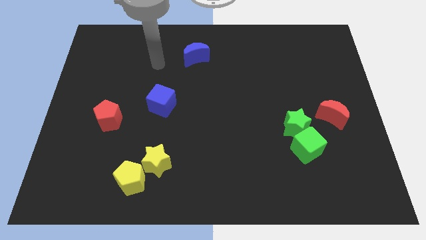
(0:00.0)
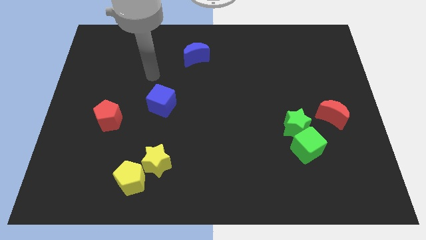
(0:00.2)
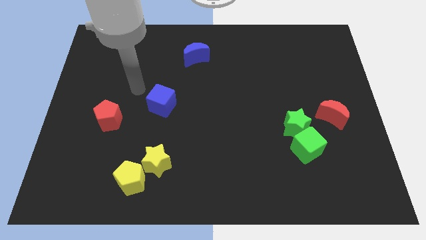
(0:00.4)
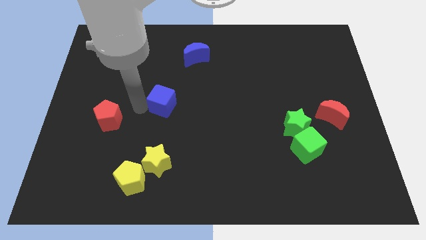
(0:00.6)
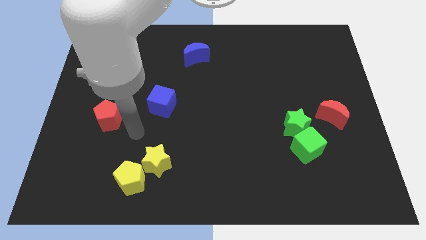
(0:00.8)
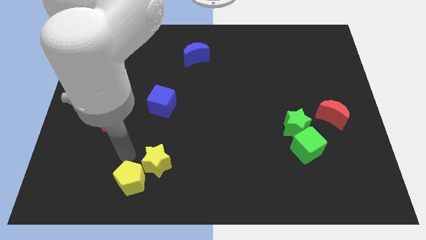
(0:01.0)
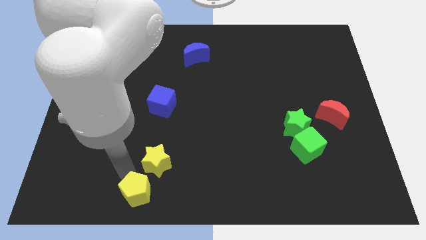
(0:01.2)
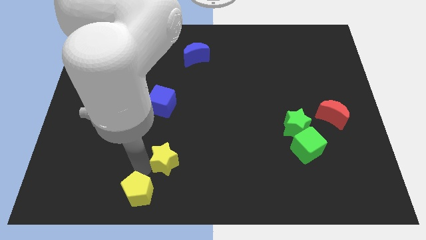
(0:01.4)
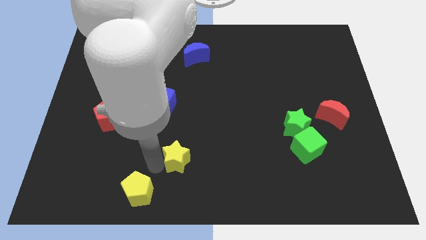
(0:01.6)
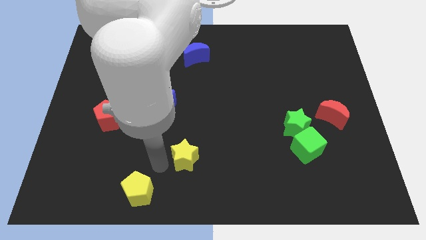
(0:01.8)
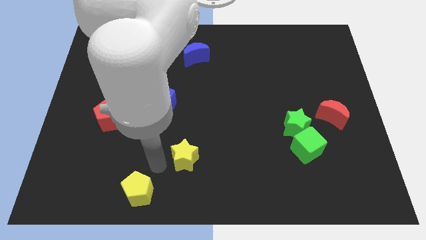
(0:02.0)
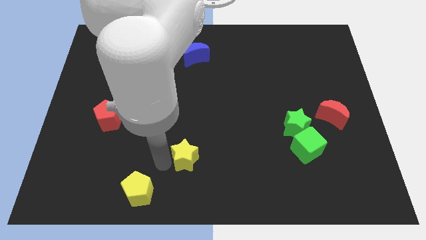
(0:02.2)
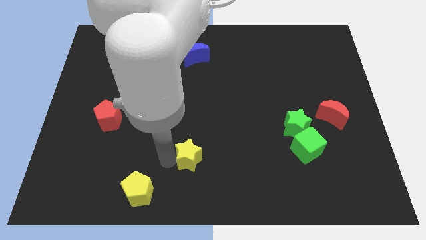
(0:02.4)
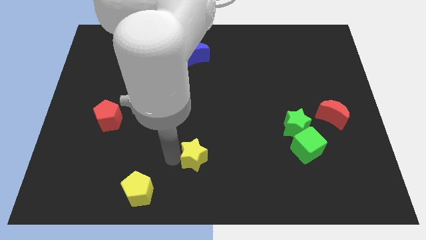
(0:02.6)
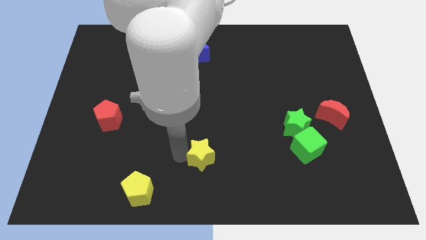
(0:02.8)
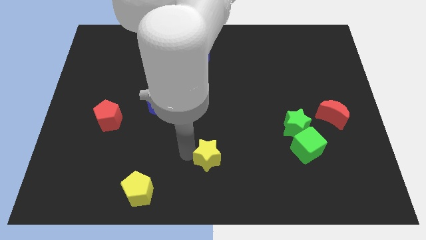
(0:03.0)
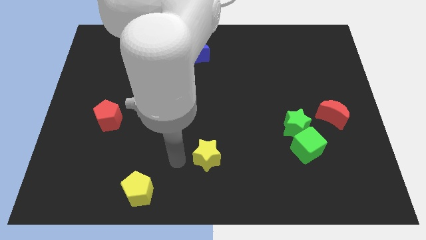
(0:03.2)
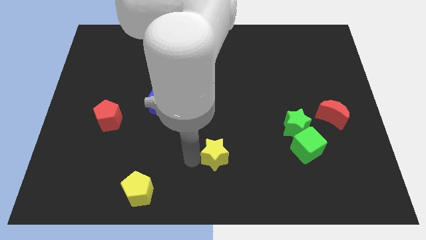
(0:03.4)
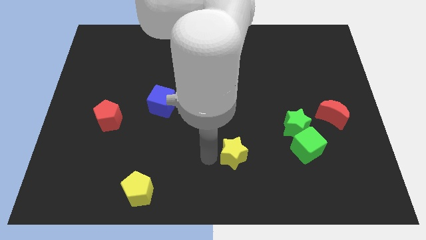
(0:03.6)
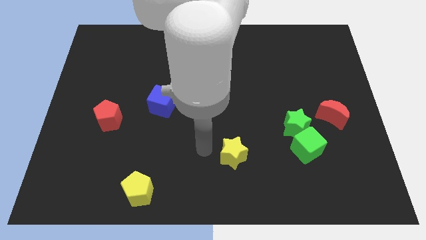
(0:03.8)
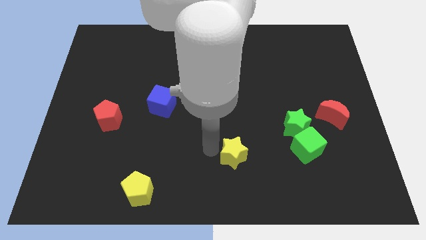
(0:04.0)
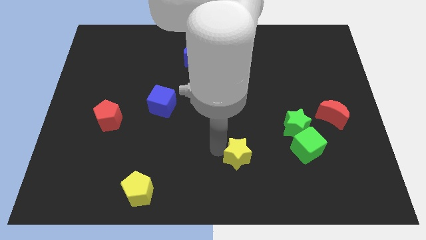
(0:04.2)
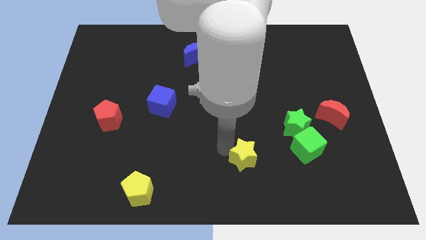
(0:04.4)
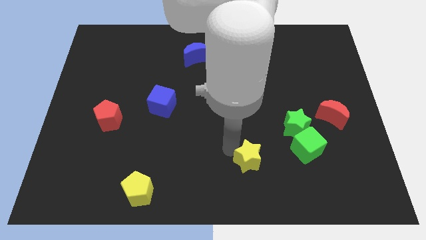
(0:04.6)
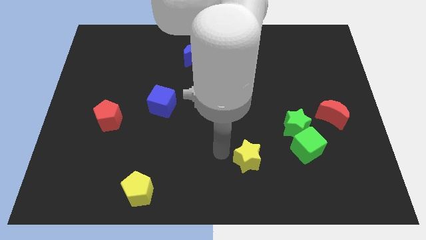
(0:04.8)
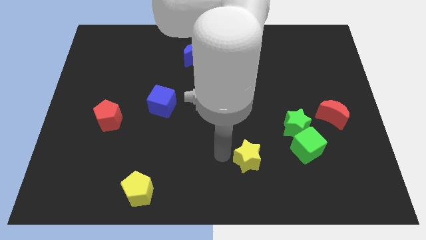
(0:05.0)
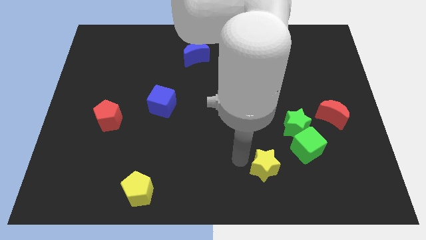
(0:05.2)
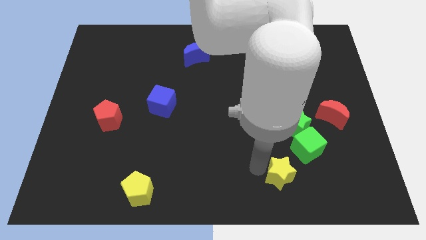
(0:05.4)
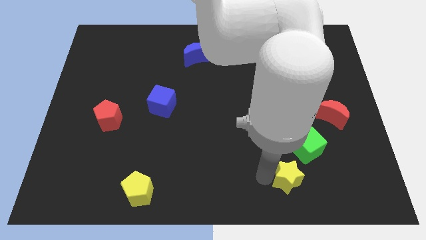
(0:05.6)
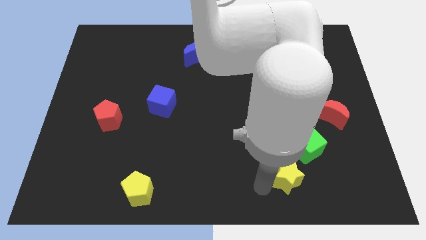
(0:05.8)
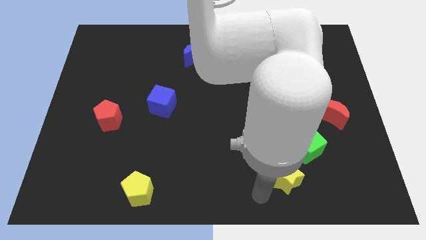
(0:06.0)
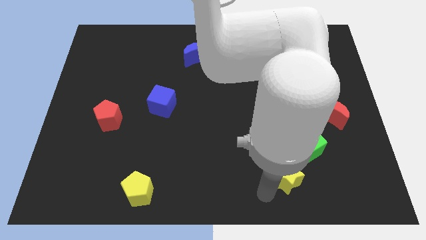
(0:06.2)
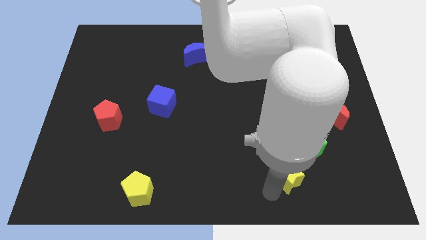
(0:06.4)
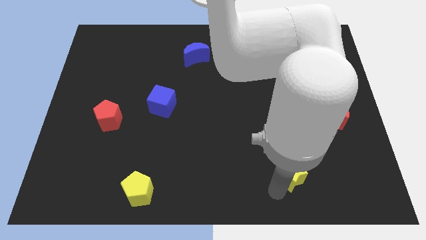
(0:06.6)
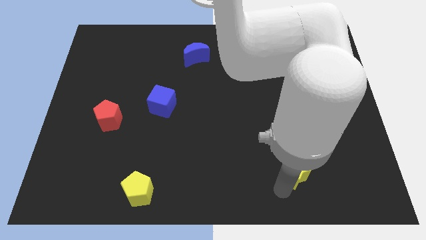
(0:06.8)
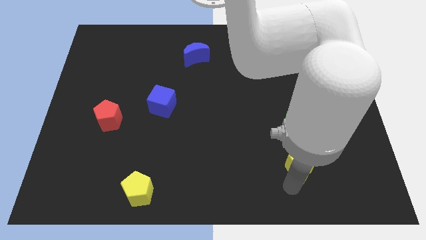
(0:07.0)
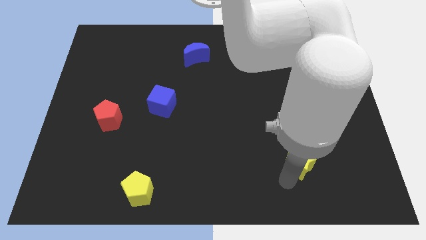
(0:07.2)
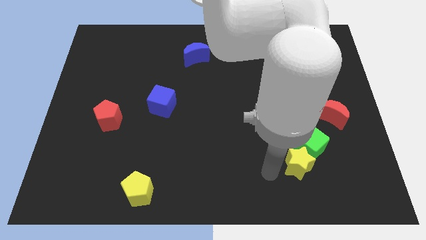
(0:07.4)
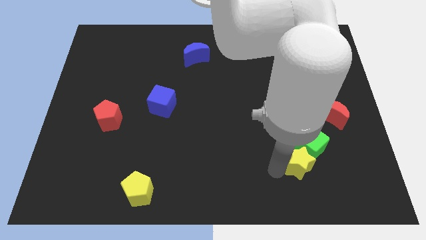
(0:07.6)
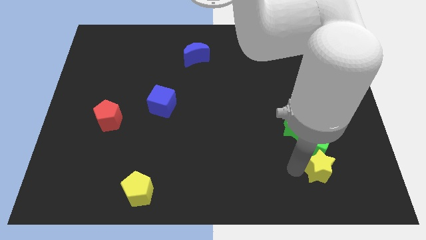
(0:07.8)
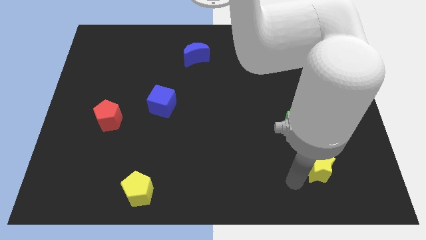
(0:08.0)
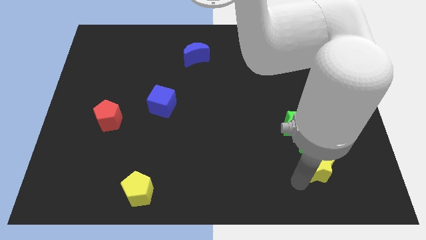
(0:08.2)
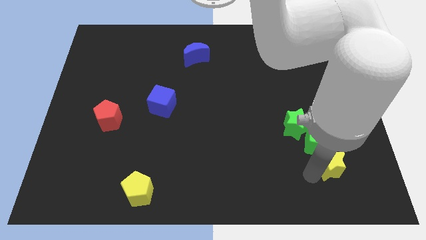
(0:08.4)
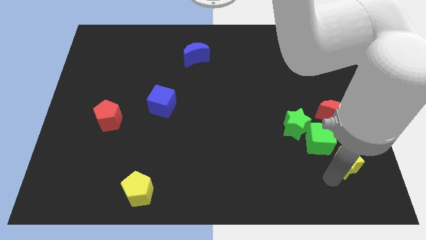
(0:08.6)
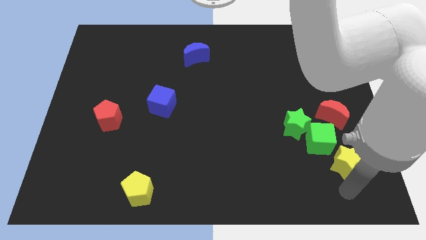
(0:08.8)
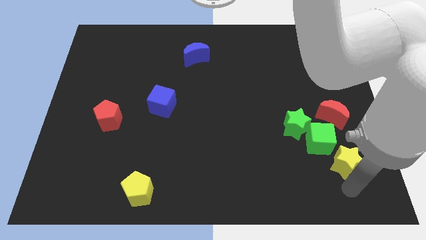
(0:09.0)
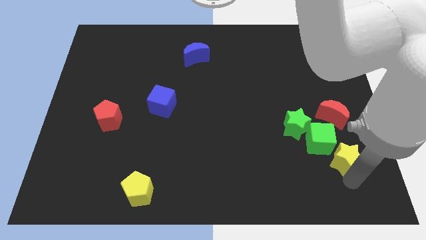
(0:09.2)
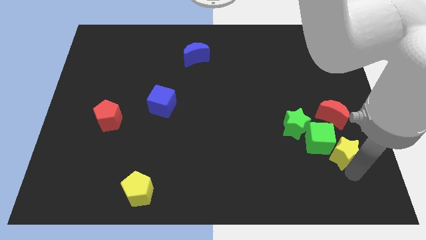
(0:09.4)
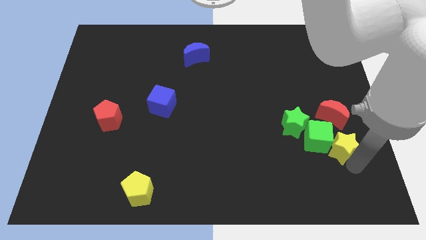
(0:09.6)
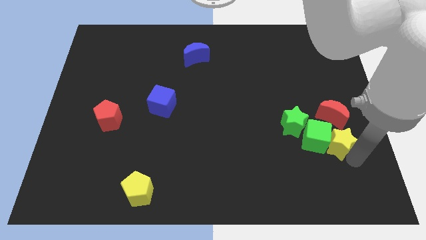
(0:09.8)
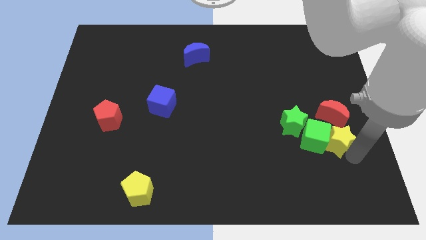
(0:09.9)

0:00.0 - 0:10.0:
put the yellow star just right of the green star

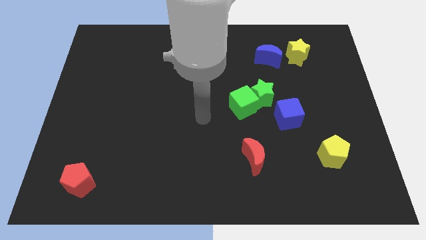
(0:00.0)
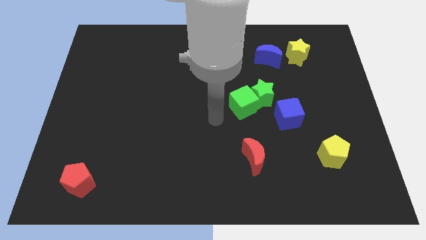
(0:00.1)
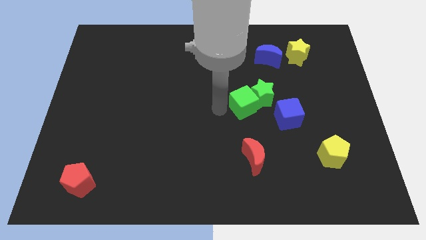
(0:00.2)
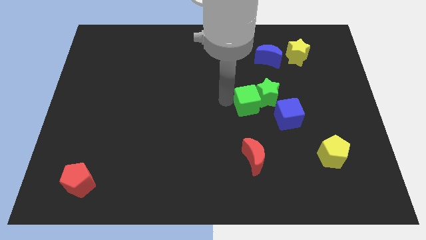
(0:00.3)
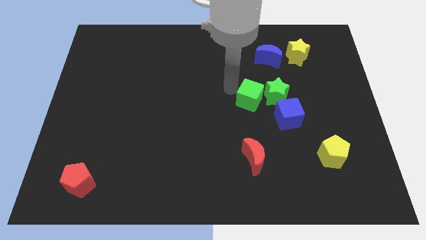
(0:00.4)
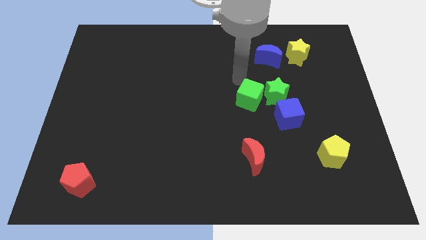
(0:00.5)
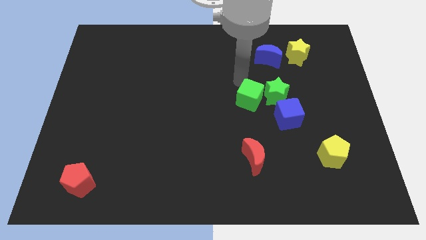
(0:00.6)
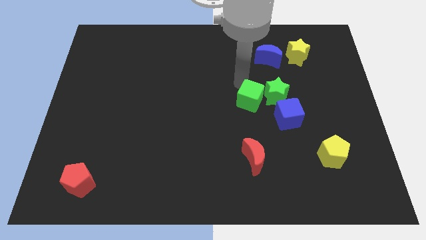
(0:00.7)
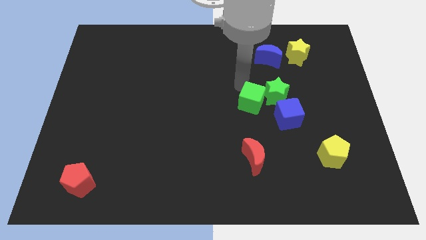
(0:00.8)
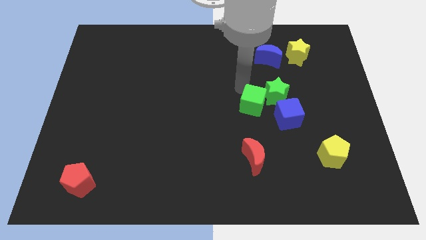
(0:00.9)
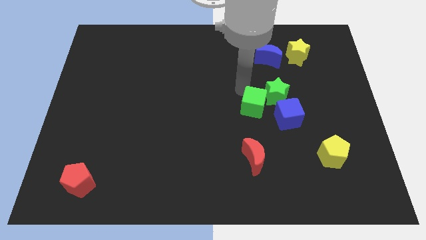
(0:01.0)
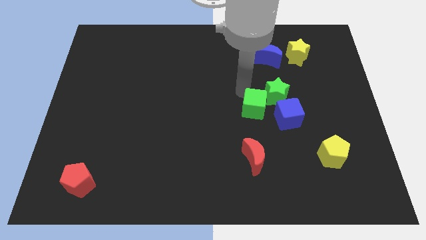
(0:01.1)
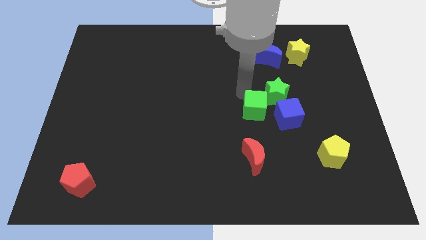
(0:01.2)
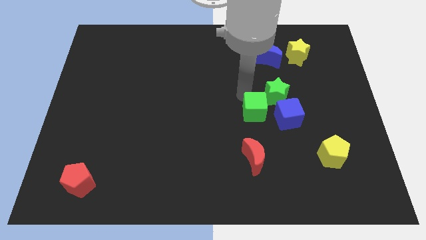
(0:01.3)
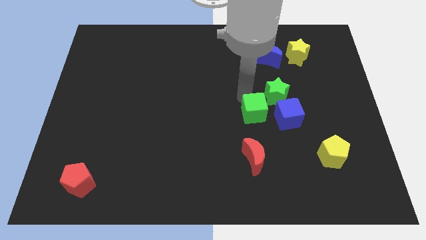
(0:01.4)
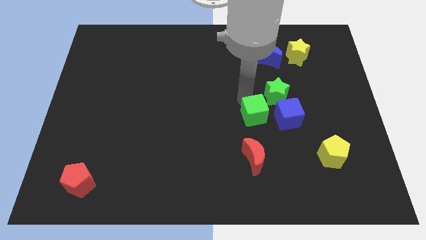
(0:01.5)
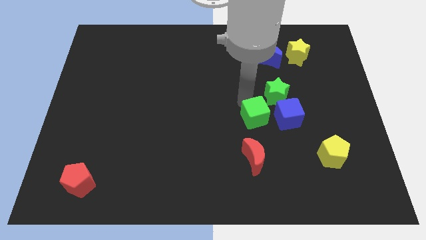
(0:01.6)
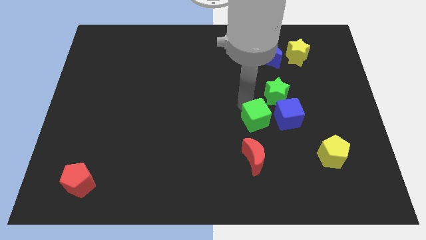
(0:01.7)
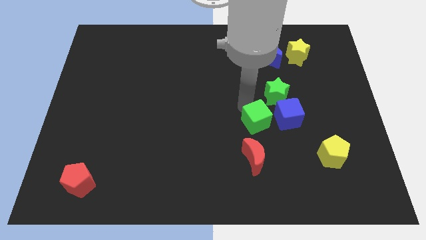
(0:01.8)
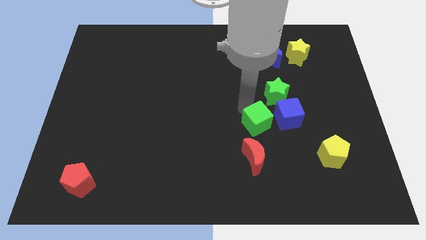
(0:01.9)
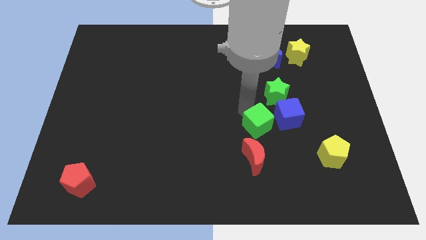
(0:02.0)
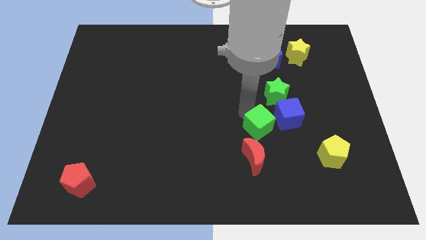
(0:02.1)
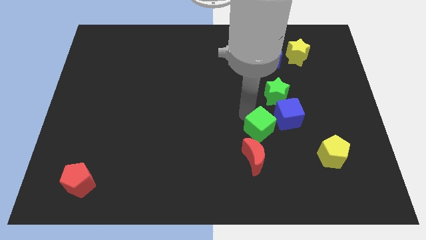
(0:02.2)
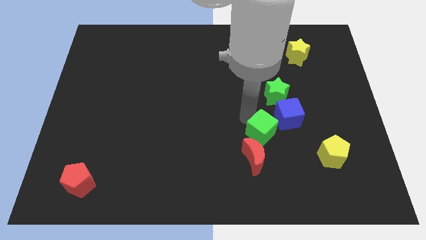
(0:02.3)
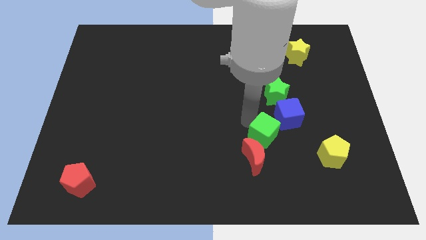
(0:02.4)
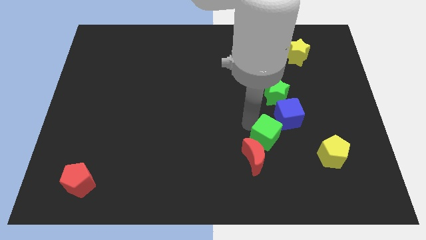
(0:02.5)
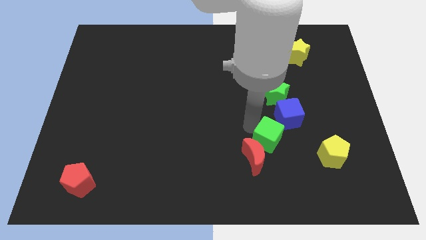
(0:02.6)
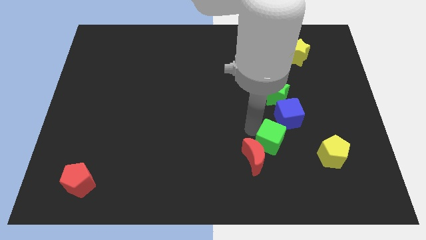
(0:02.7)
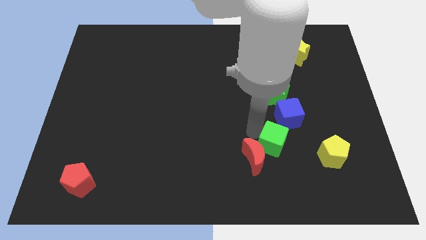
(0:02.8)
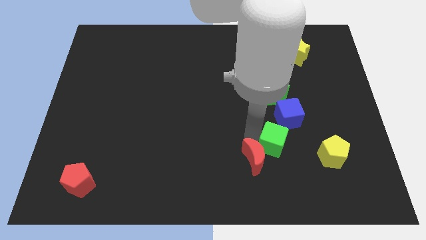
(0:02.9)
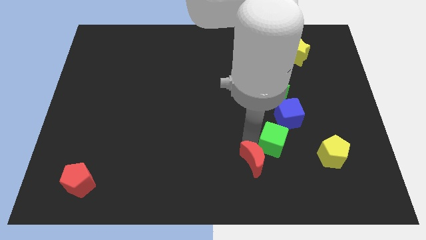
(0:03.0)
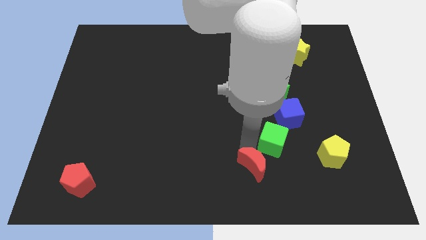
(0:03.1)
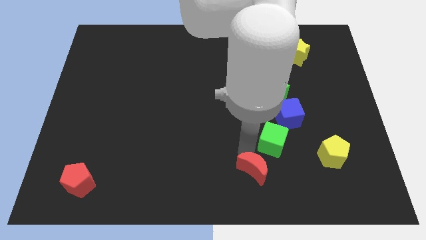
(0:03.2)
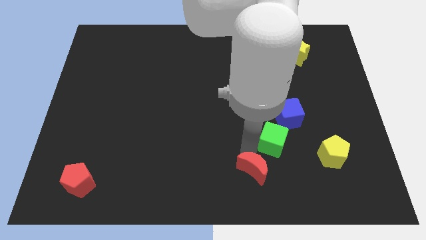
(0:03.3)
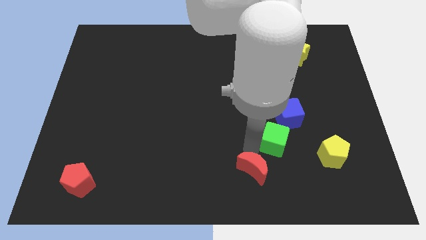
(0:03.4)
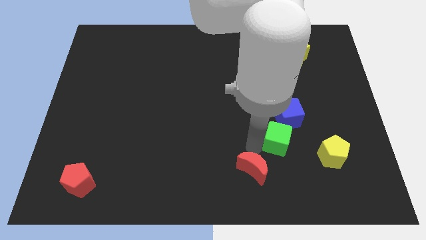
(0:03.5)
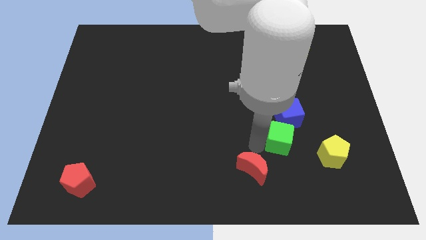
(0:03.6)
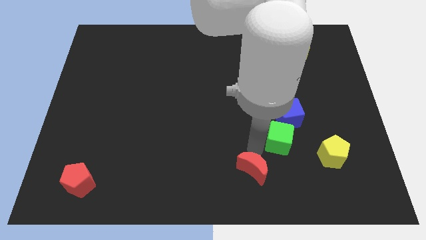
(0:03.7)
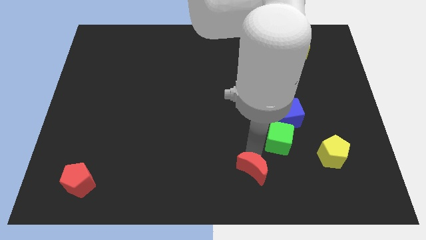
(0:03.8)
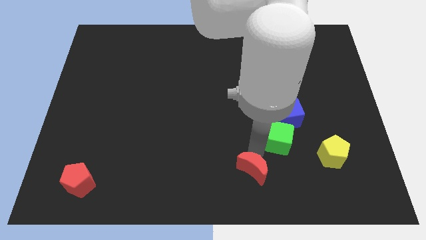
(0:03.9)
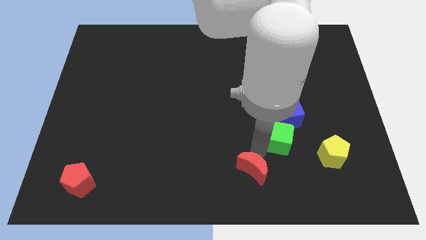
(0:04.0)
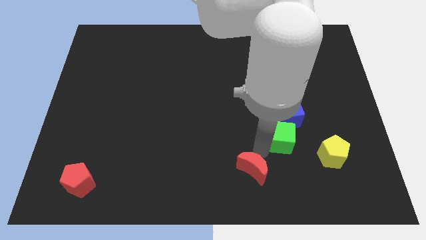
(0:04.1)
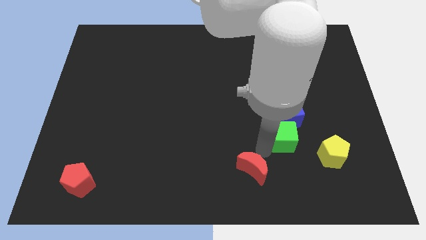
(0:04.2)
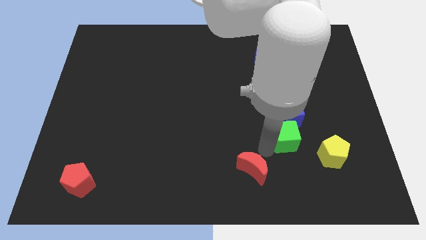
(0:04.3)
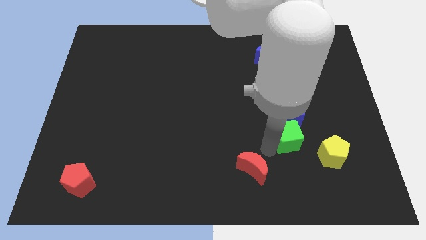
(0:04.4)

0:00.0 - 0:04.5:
push the green cube diagonally down and to the right of the blue cube
